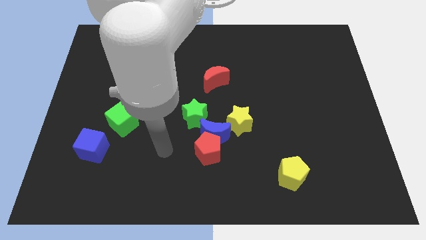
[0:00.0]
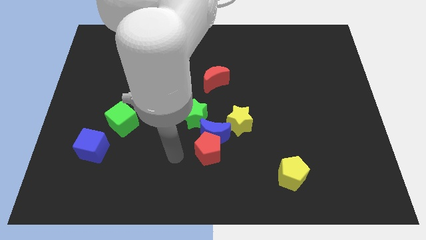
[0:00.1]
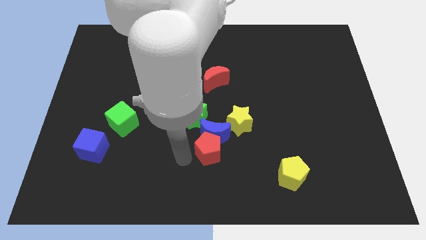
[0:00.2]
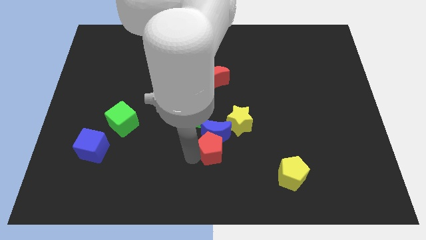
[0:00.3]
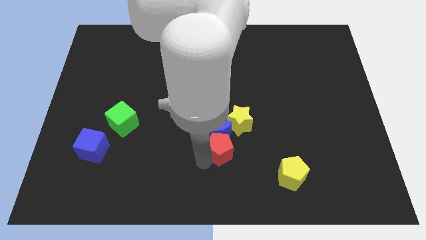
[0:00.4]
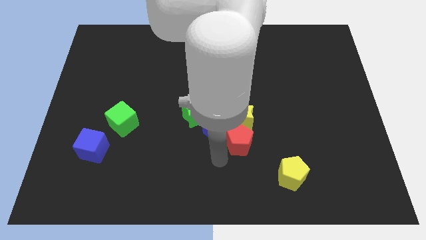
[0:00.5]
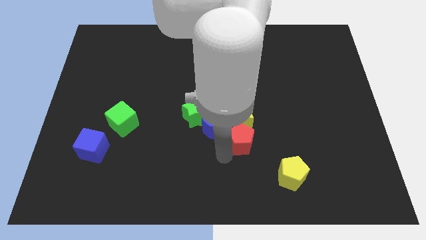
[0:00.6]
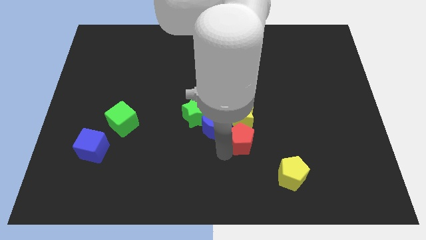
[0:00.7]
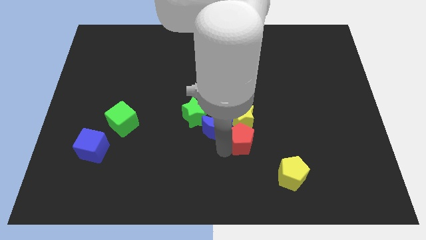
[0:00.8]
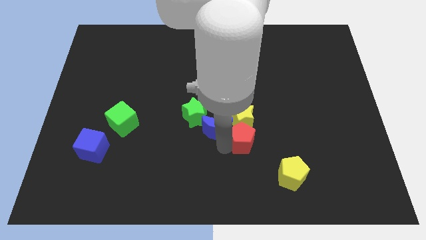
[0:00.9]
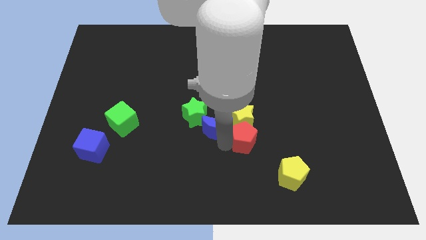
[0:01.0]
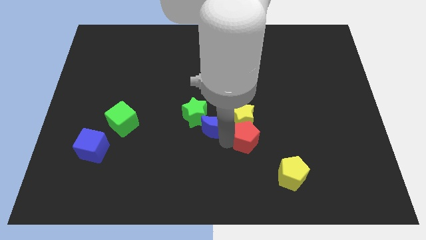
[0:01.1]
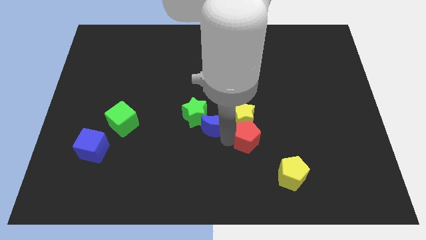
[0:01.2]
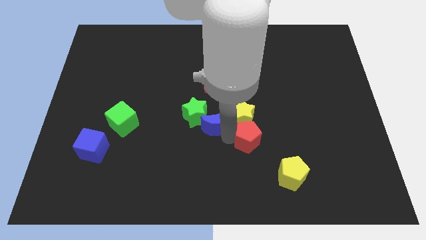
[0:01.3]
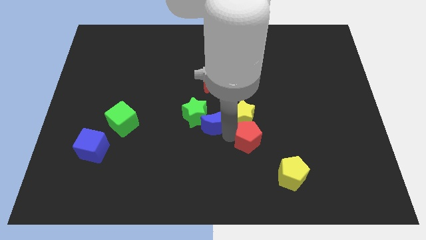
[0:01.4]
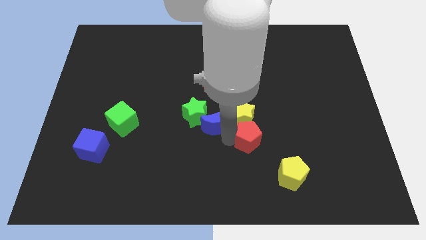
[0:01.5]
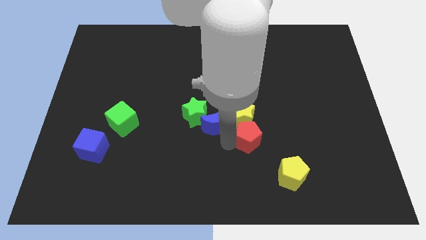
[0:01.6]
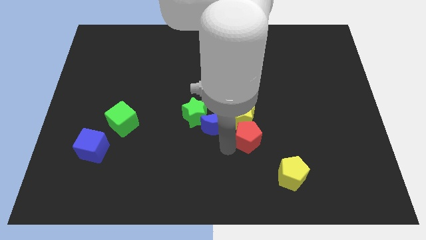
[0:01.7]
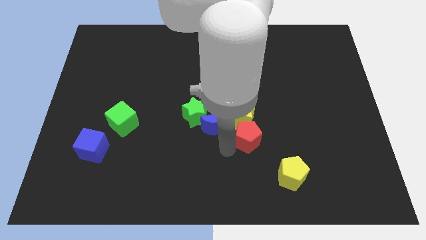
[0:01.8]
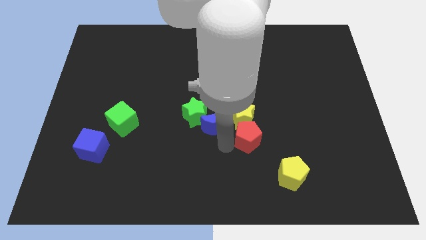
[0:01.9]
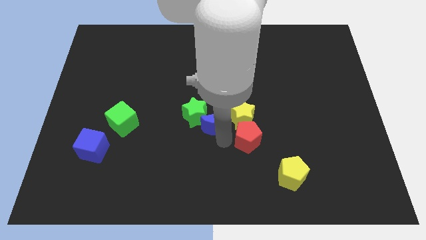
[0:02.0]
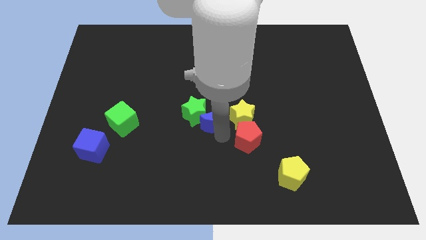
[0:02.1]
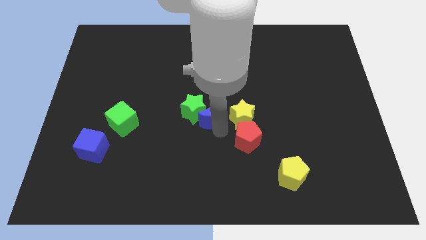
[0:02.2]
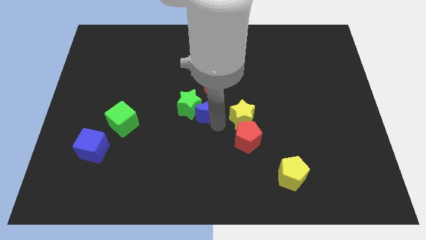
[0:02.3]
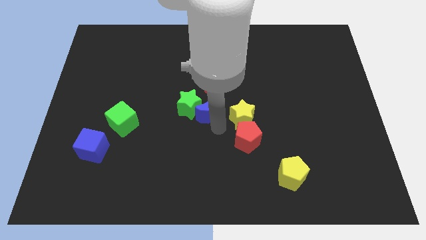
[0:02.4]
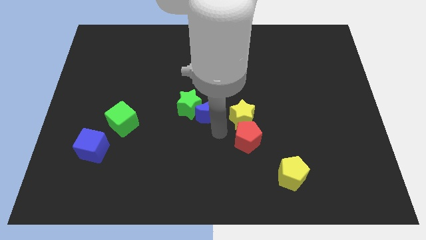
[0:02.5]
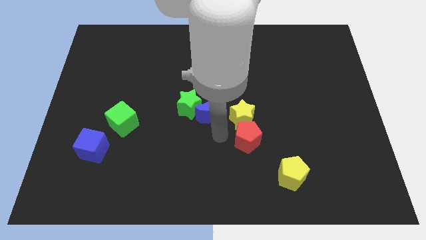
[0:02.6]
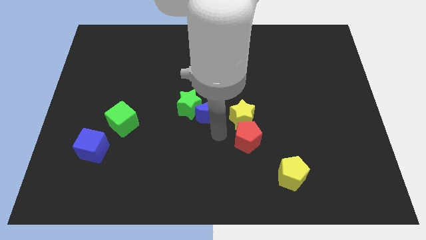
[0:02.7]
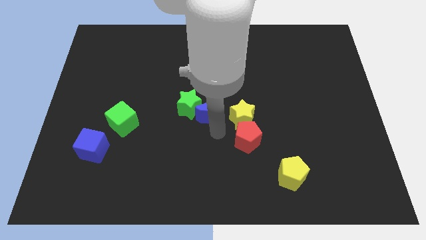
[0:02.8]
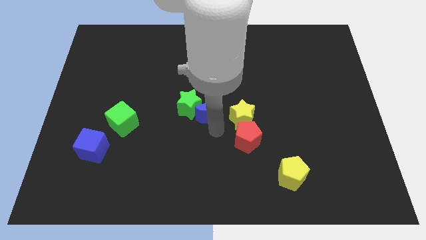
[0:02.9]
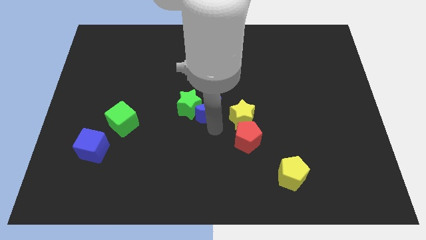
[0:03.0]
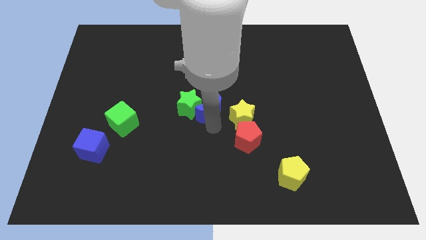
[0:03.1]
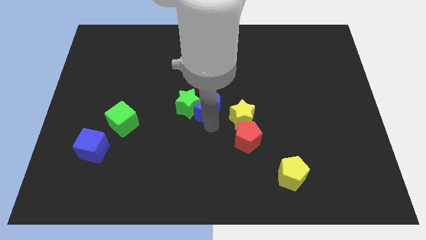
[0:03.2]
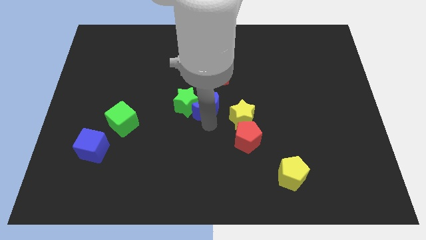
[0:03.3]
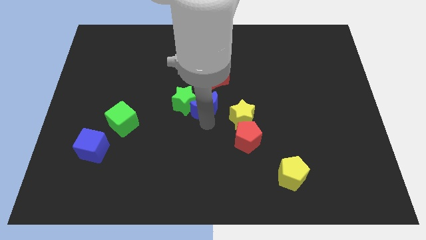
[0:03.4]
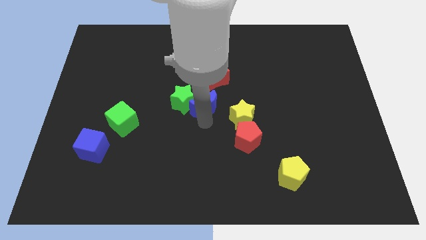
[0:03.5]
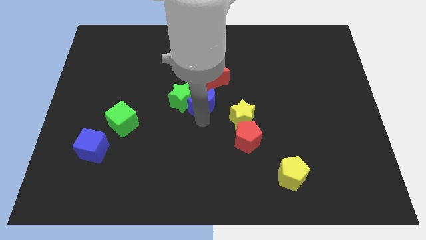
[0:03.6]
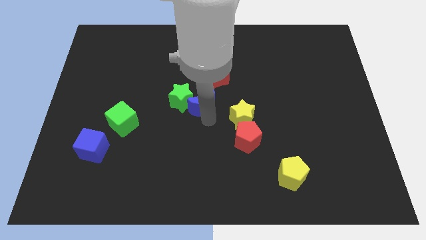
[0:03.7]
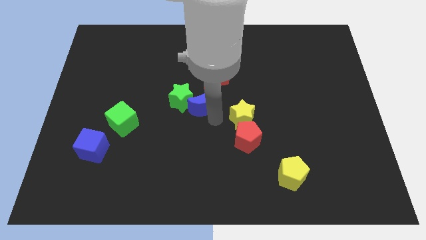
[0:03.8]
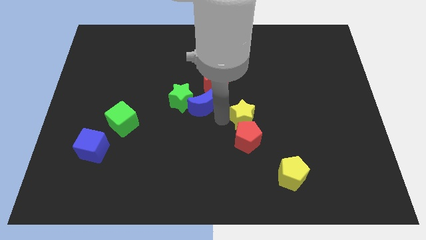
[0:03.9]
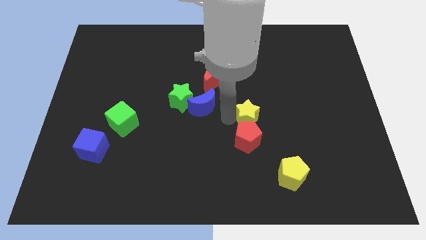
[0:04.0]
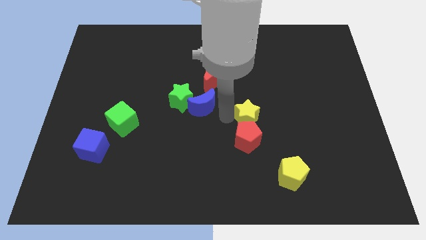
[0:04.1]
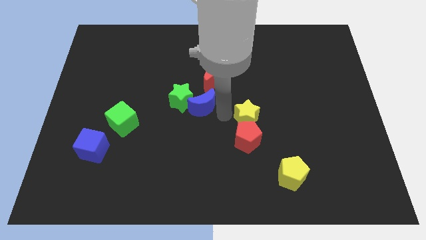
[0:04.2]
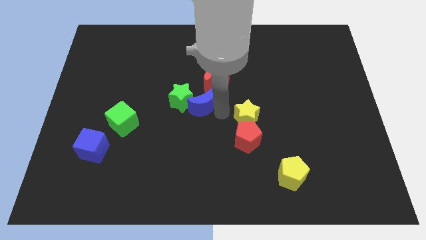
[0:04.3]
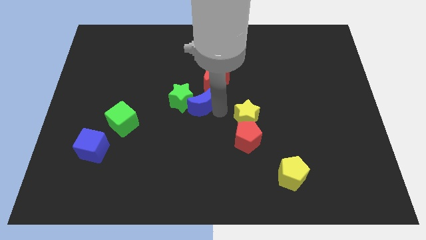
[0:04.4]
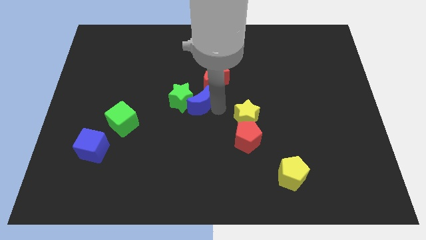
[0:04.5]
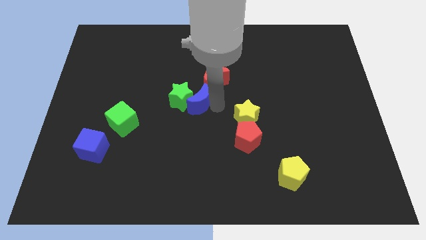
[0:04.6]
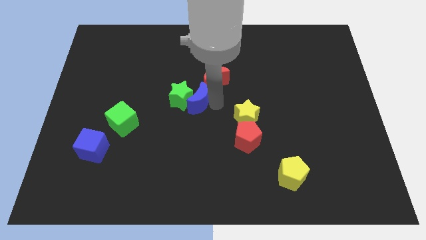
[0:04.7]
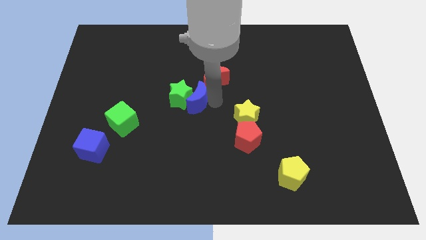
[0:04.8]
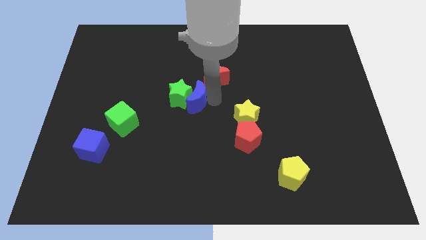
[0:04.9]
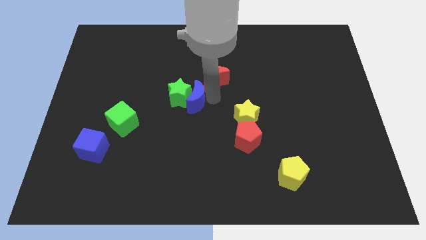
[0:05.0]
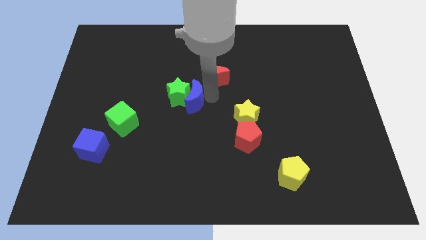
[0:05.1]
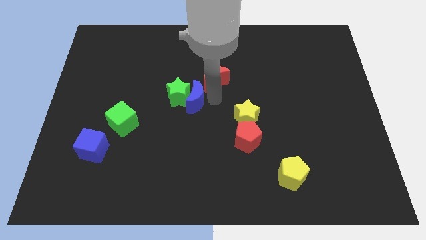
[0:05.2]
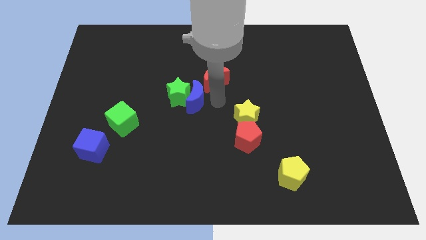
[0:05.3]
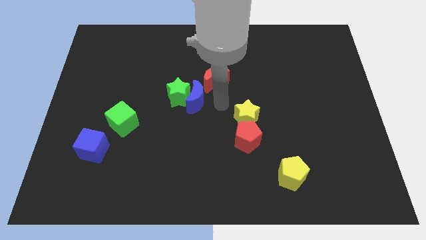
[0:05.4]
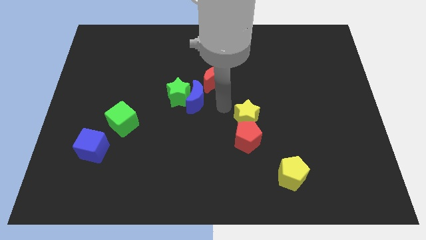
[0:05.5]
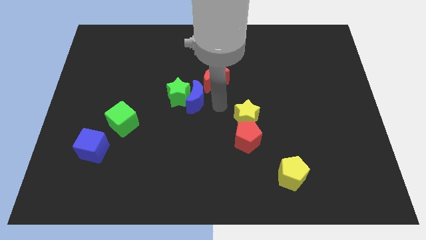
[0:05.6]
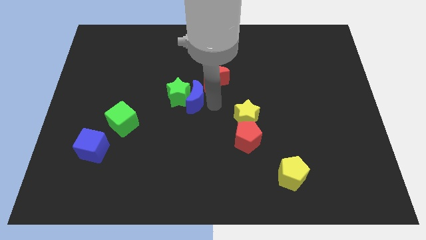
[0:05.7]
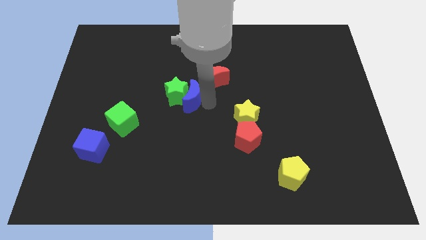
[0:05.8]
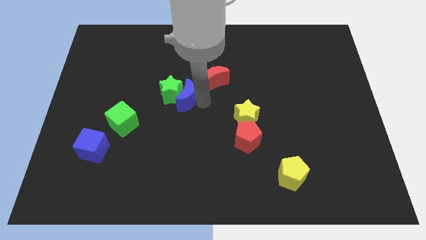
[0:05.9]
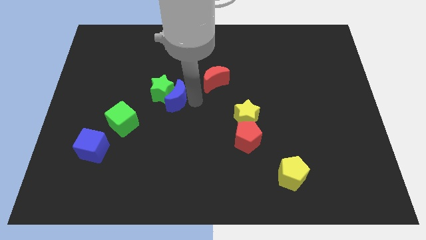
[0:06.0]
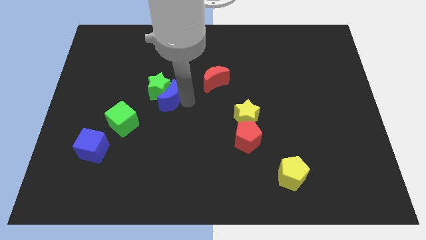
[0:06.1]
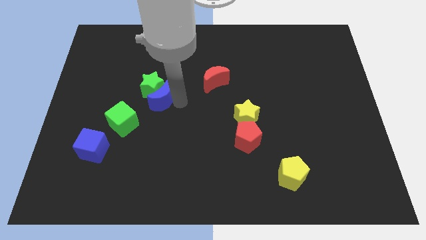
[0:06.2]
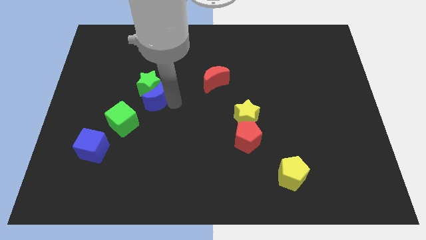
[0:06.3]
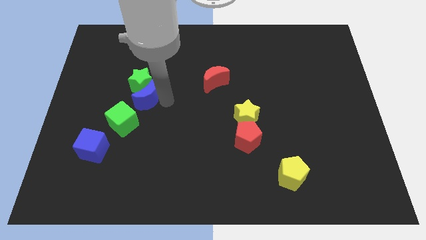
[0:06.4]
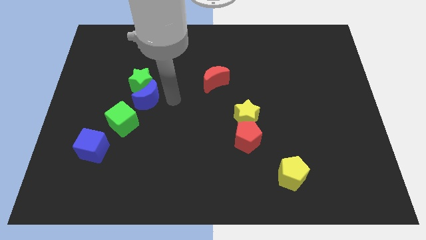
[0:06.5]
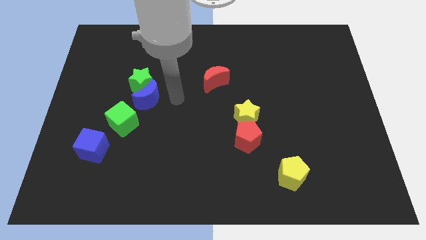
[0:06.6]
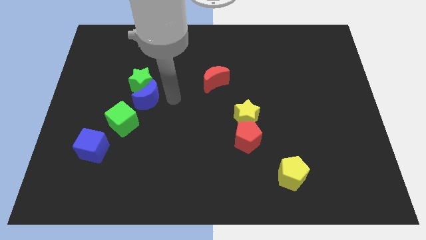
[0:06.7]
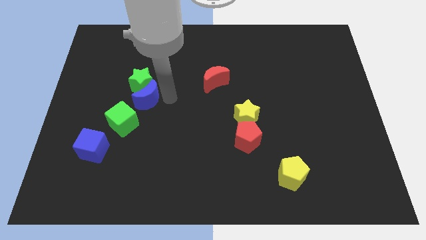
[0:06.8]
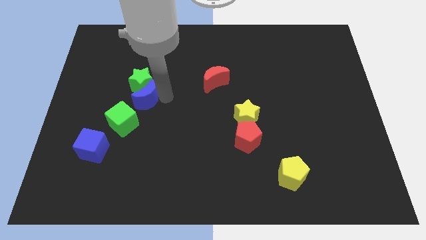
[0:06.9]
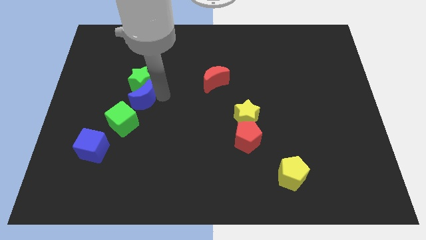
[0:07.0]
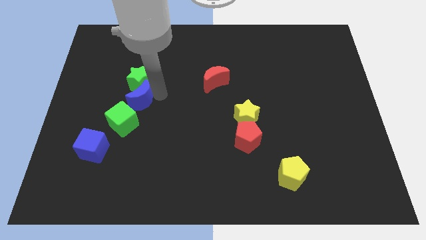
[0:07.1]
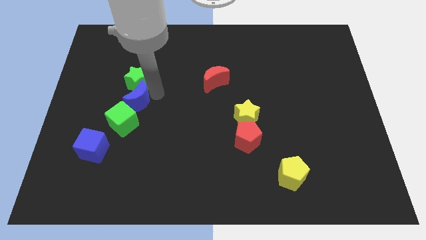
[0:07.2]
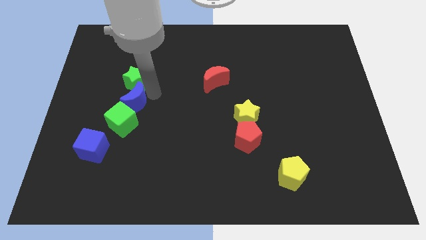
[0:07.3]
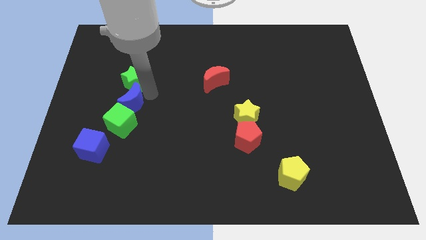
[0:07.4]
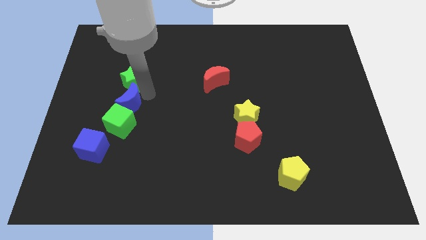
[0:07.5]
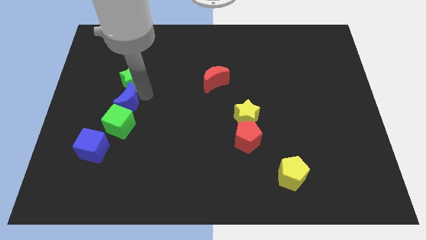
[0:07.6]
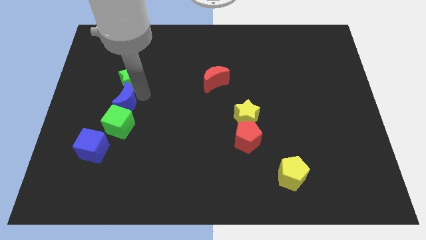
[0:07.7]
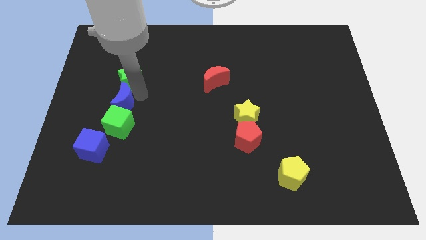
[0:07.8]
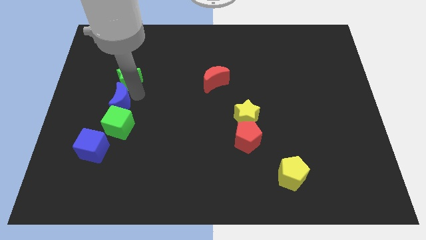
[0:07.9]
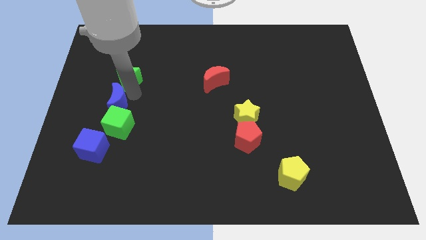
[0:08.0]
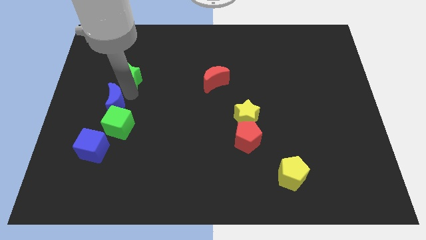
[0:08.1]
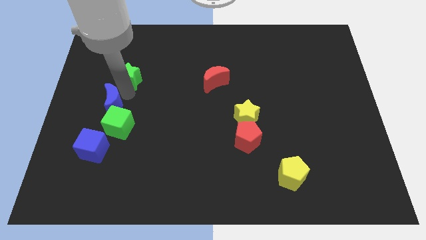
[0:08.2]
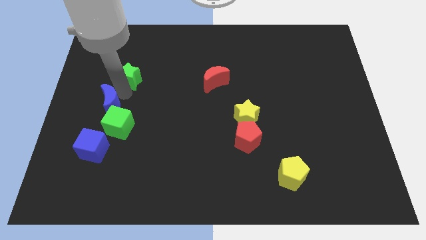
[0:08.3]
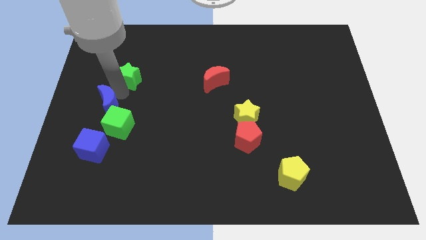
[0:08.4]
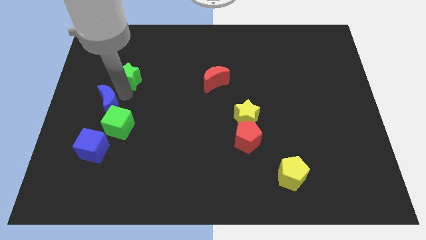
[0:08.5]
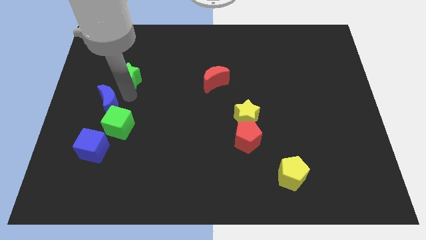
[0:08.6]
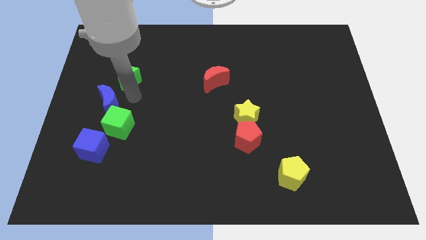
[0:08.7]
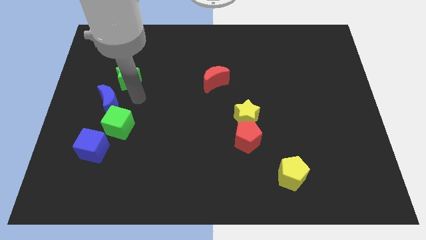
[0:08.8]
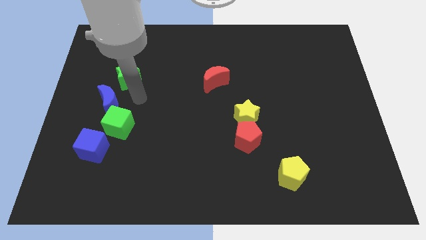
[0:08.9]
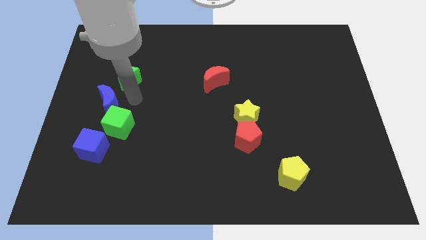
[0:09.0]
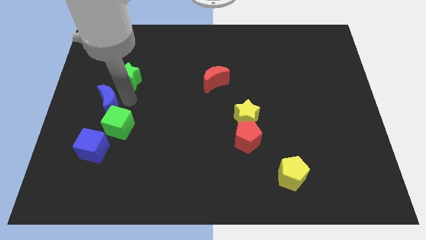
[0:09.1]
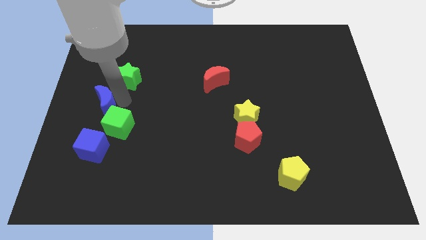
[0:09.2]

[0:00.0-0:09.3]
slide the blue moon to the center left
